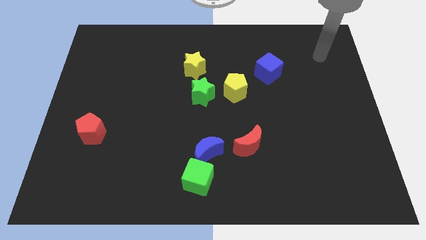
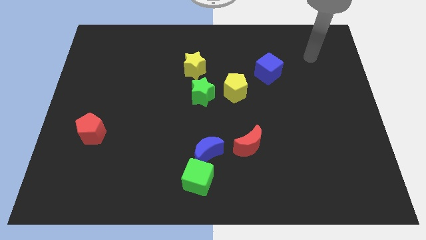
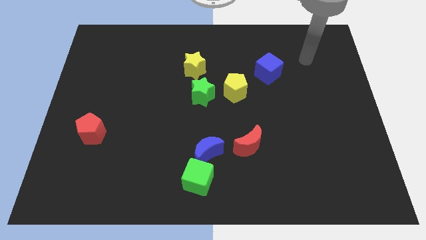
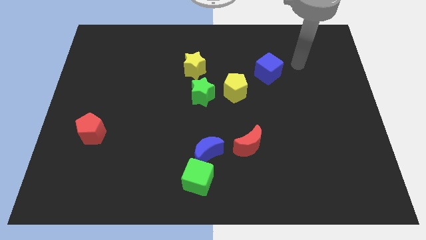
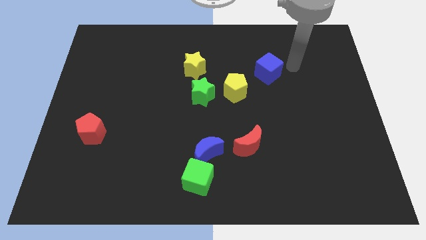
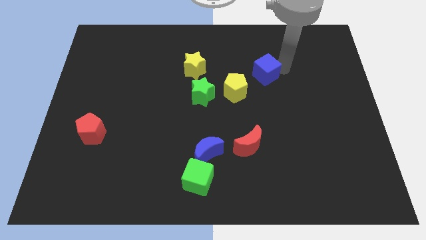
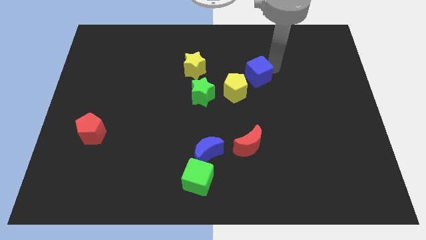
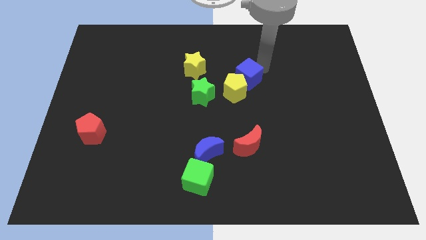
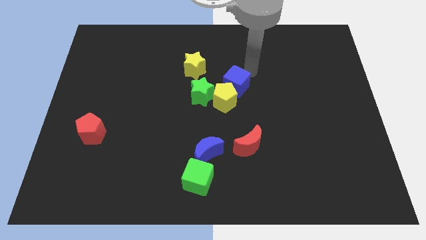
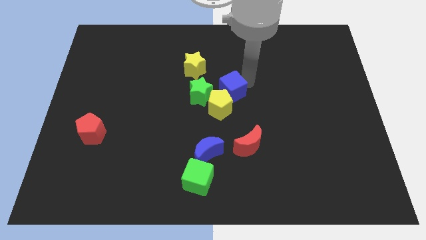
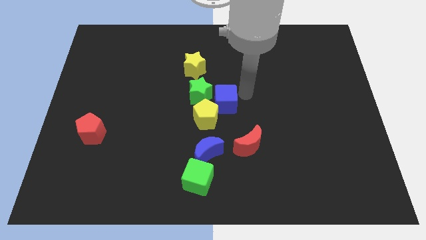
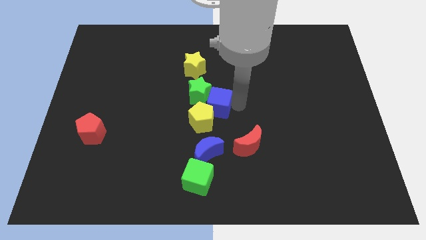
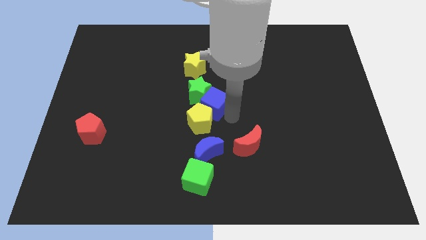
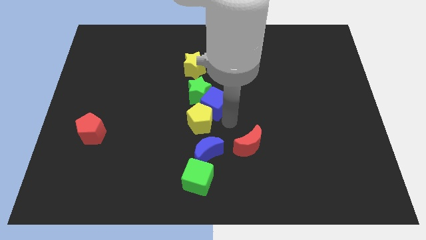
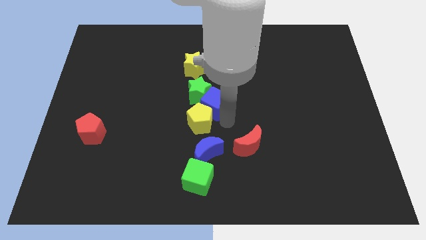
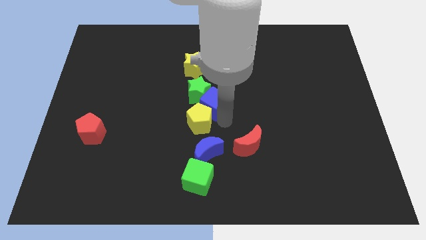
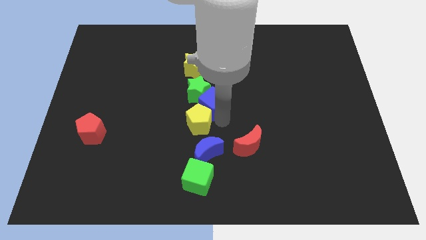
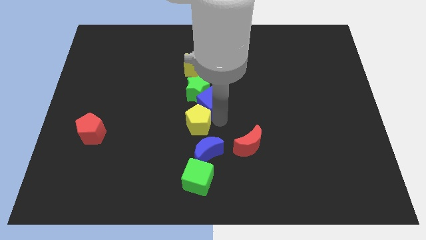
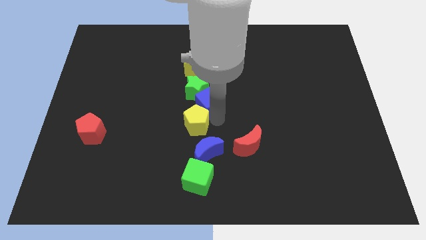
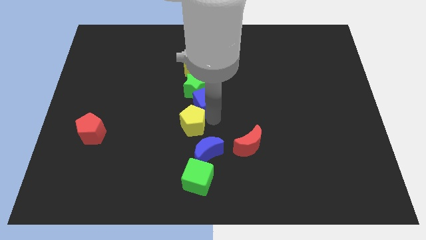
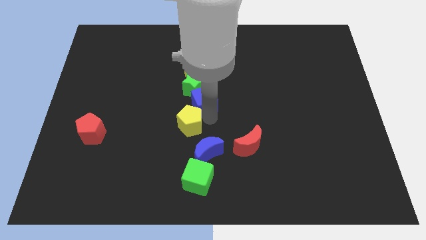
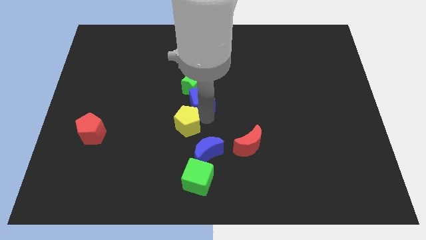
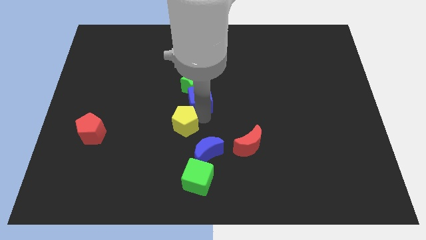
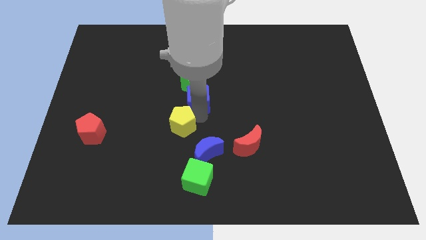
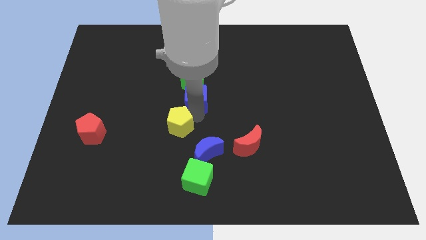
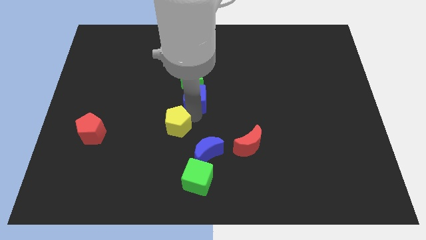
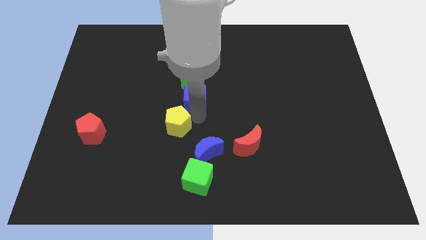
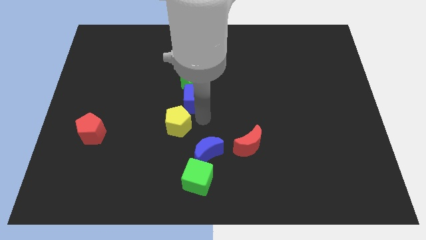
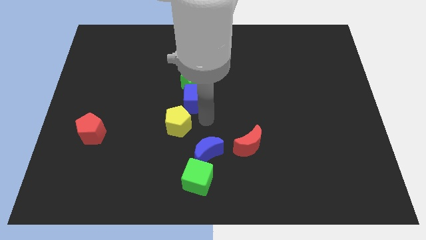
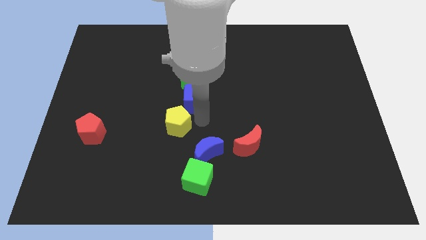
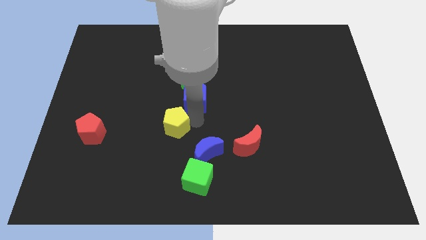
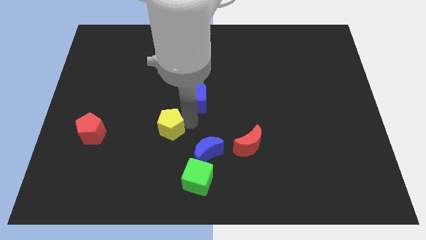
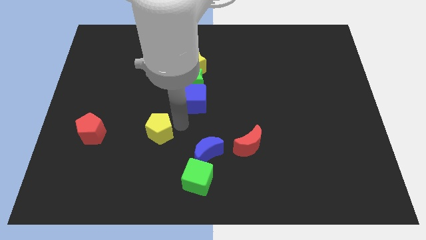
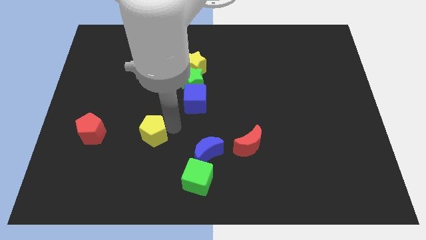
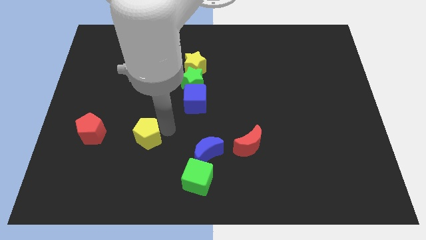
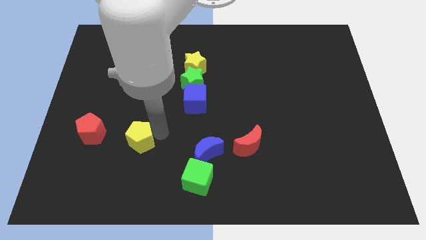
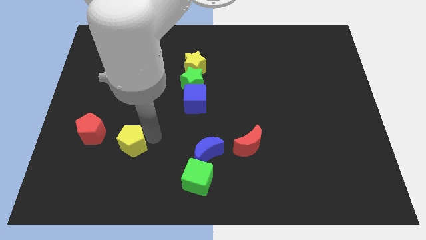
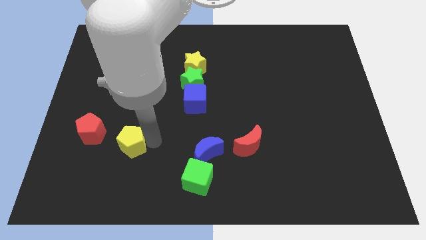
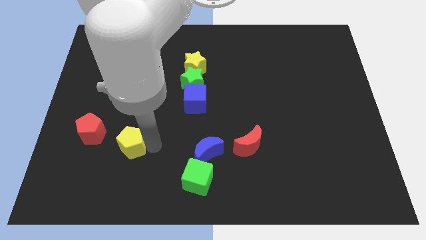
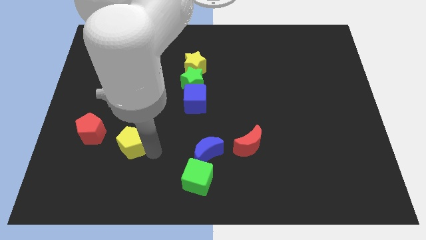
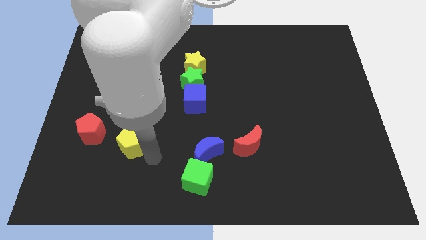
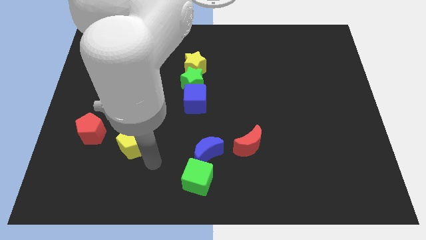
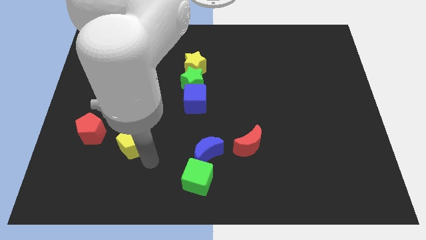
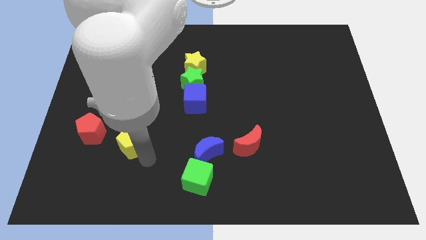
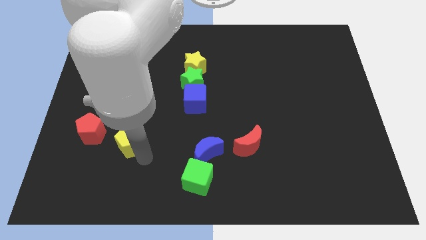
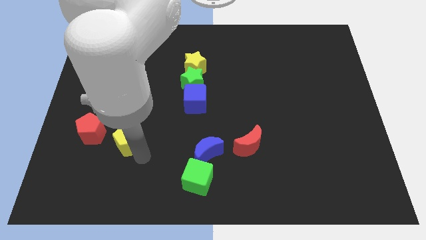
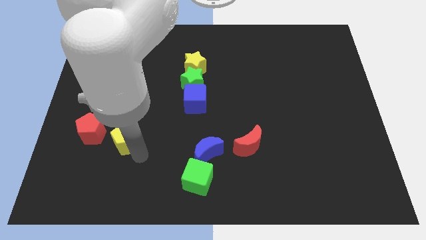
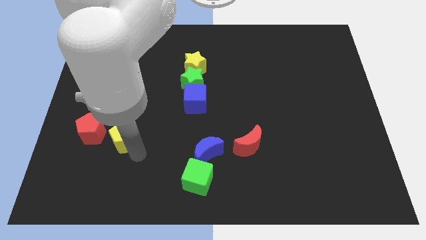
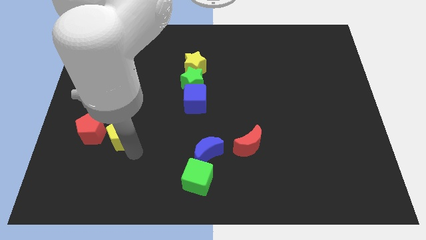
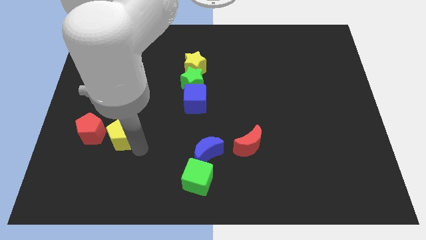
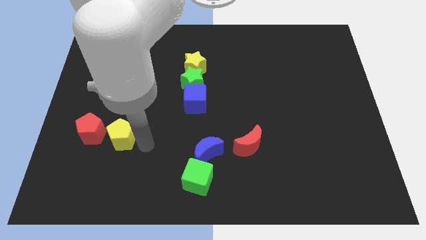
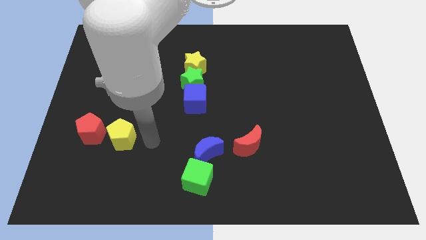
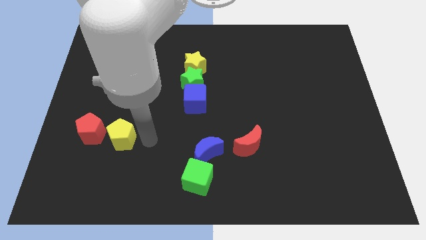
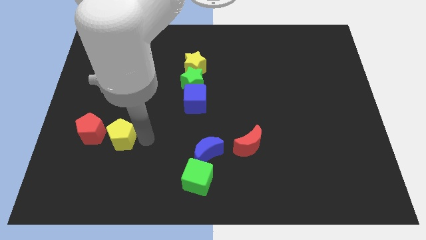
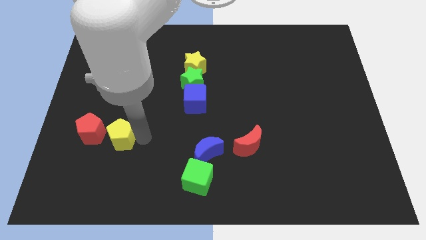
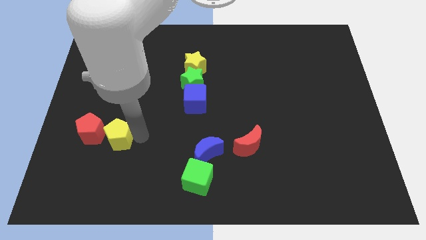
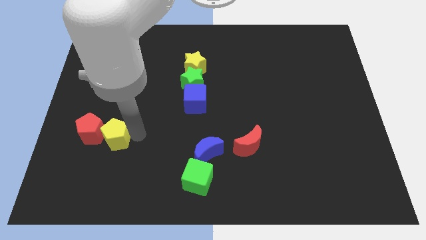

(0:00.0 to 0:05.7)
put the yellow pentagon close to the red pentagon
